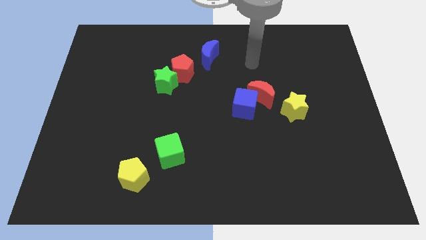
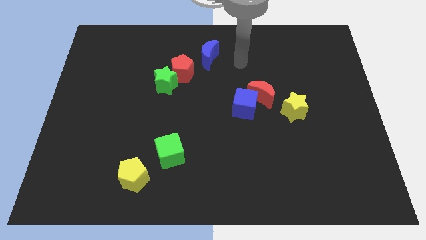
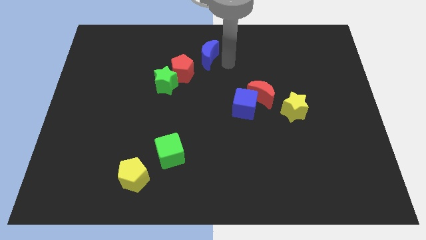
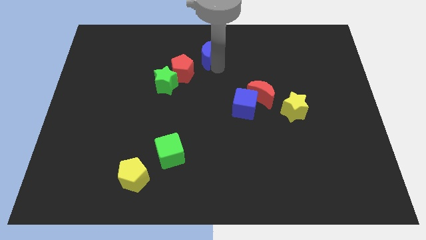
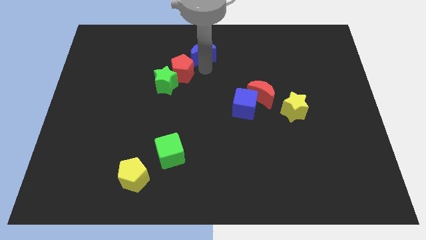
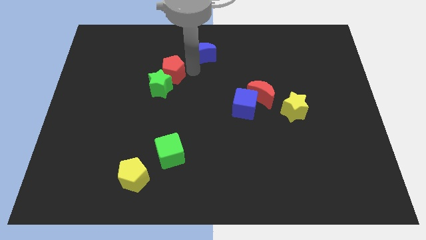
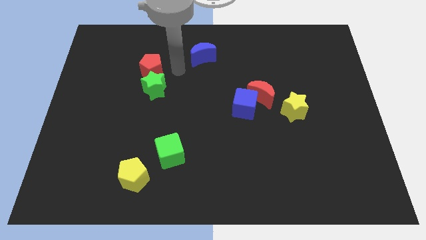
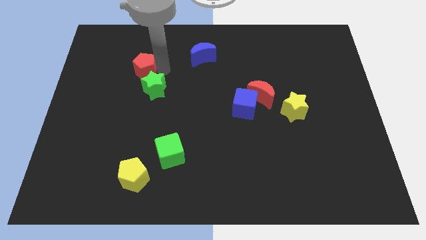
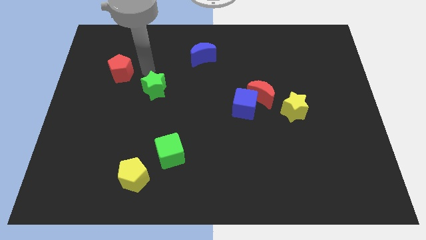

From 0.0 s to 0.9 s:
pull the green star apart from the red pentagon

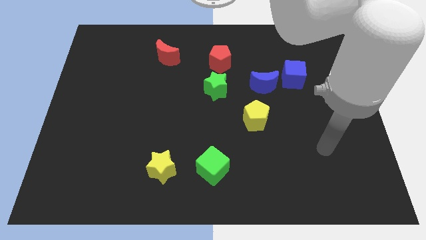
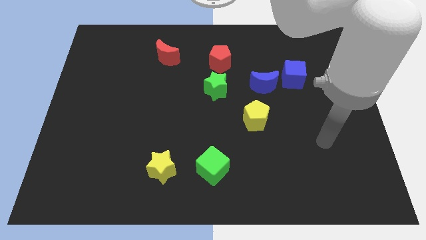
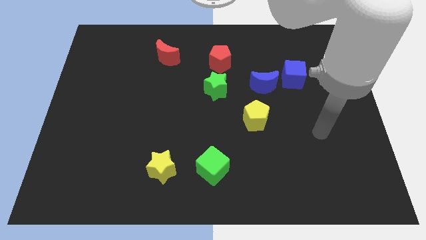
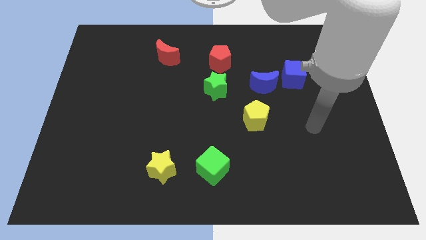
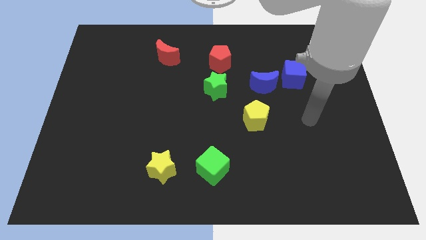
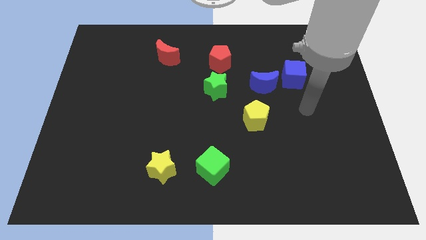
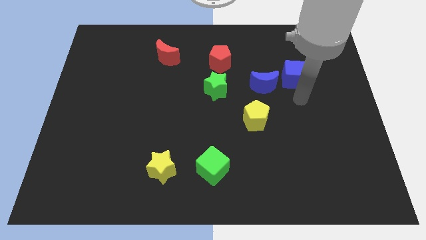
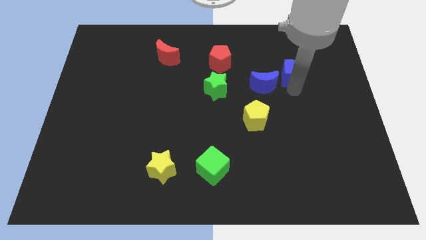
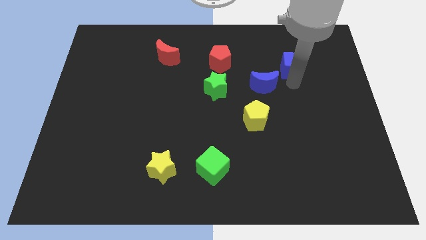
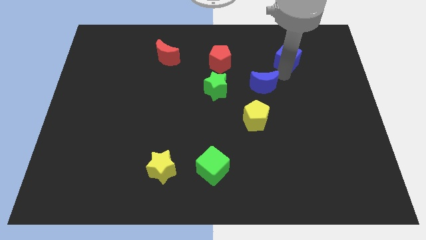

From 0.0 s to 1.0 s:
separate the blue moon from the blue cube

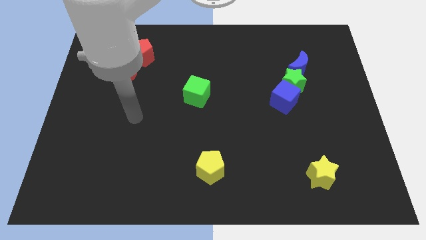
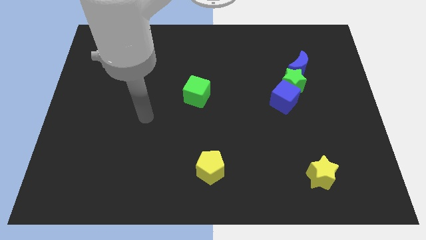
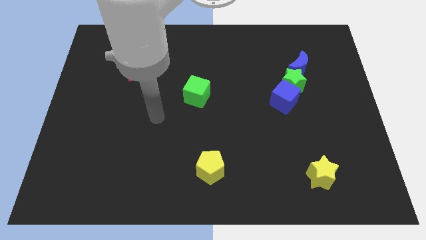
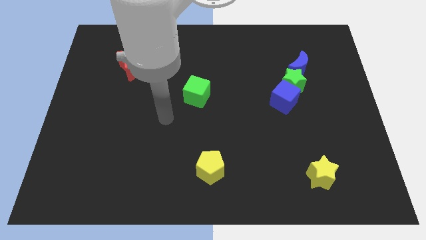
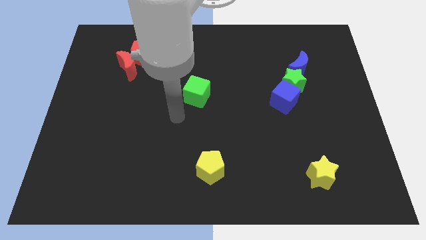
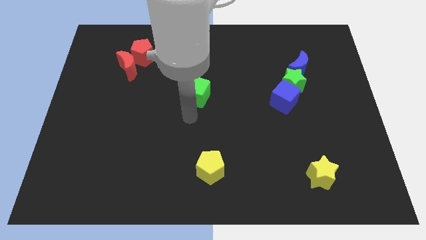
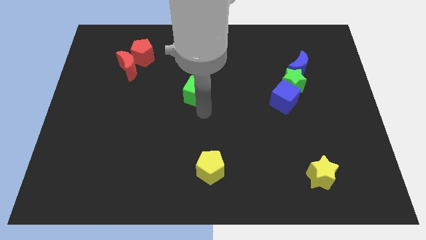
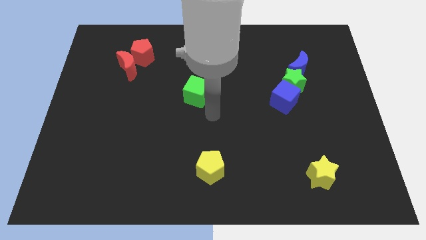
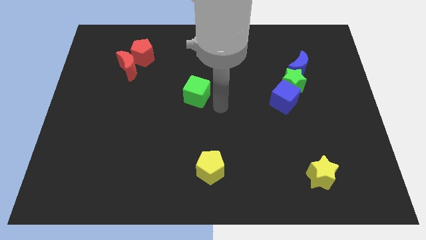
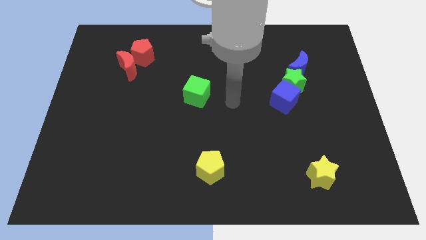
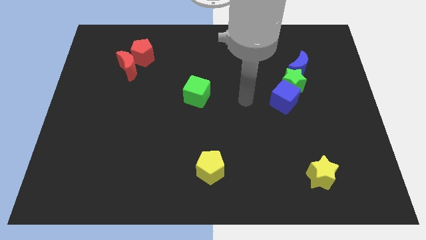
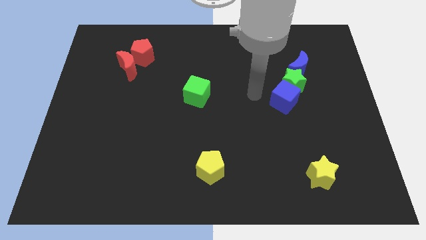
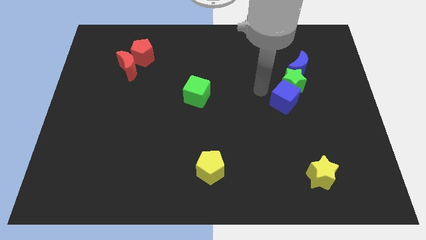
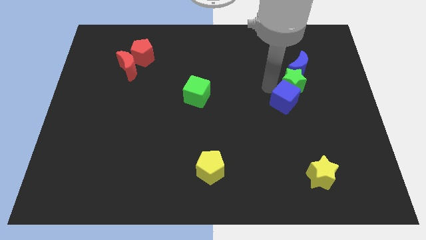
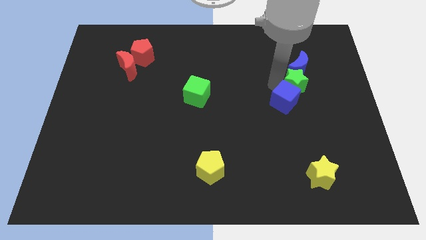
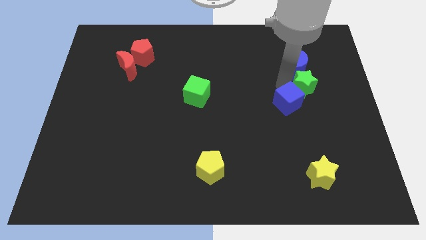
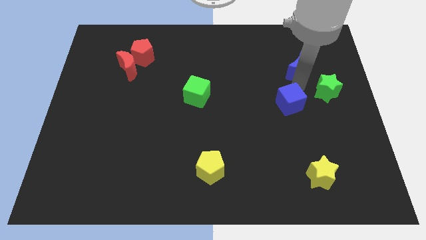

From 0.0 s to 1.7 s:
separate the blue cube from the green star

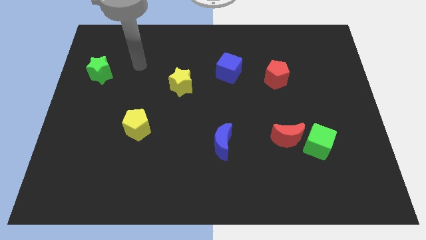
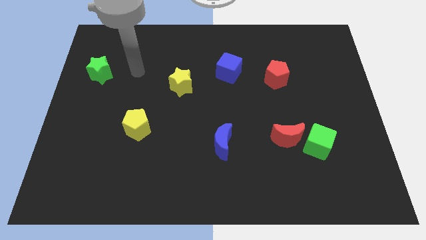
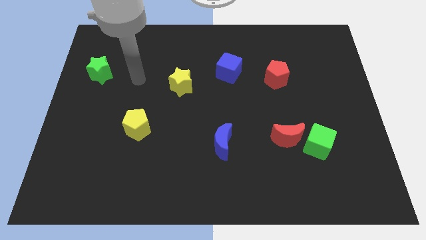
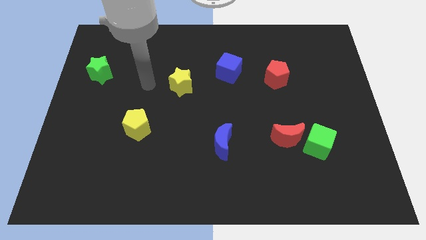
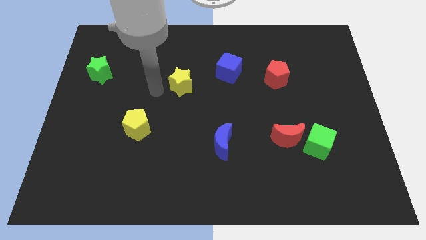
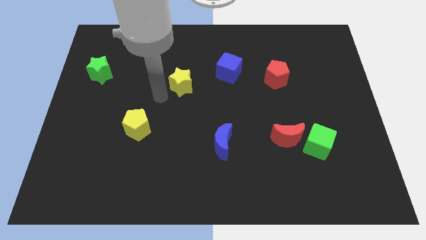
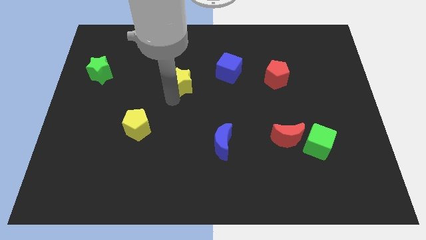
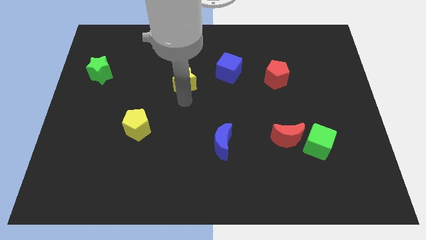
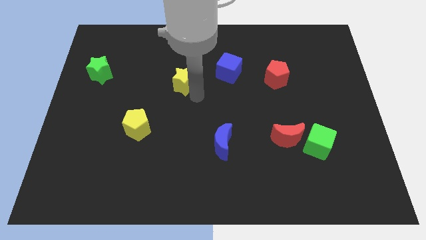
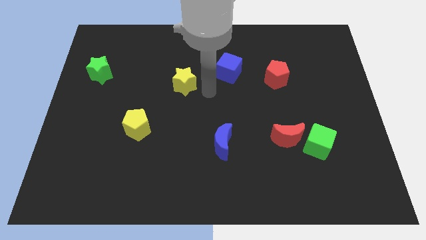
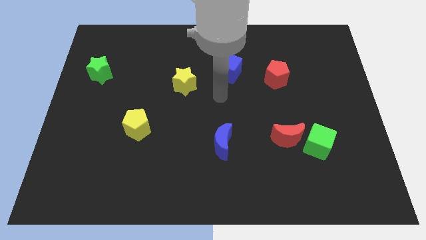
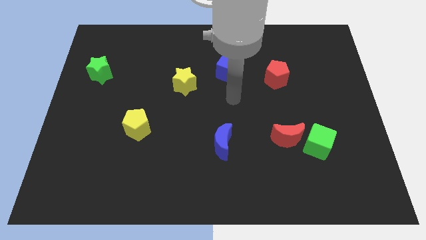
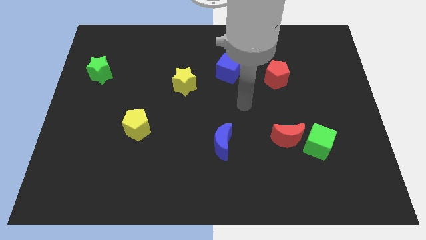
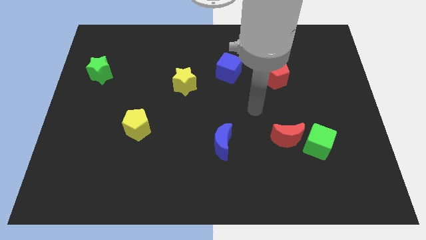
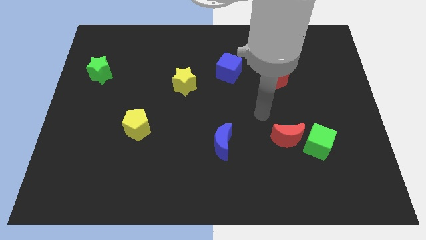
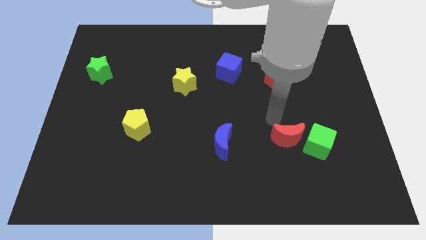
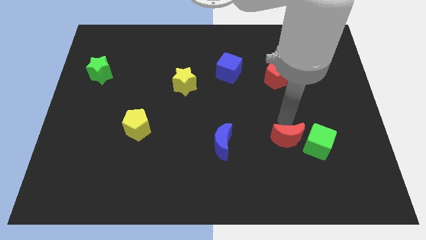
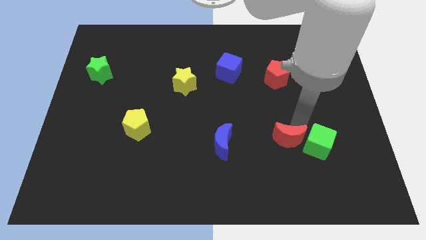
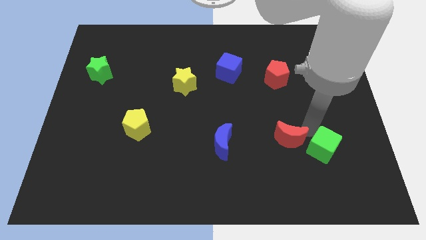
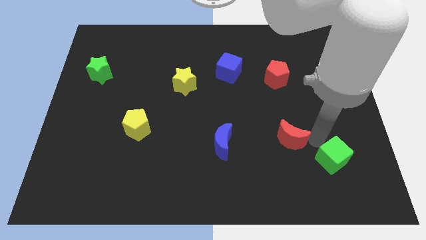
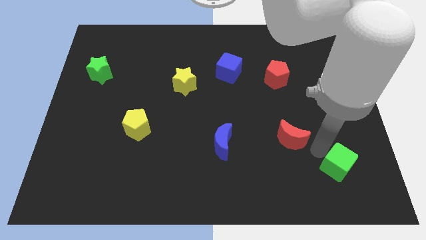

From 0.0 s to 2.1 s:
move the red moon away from the green cube

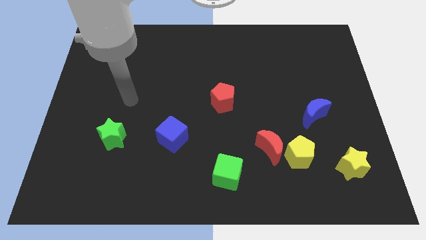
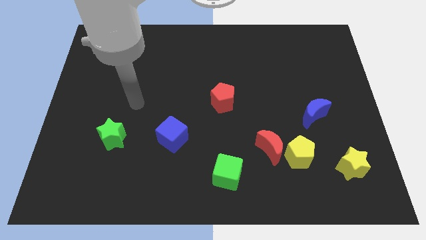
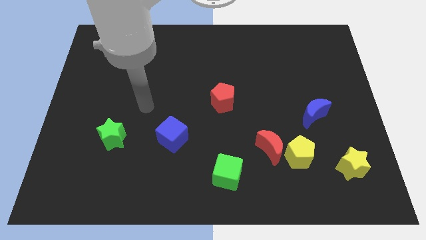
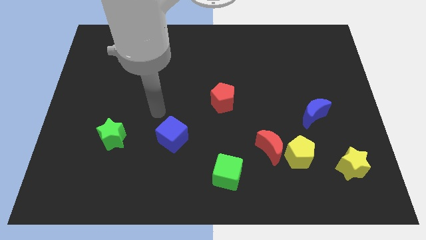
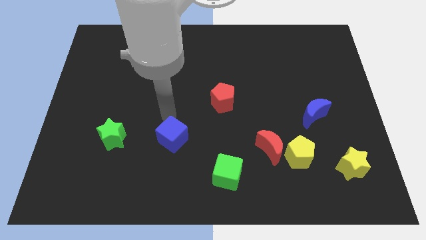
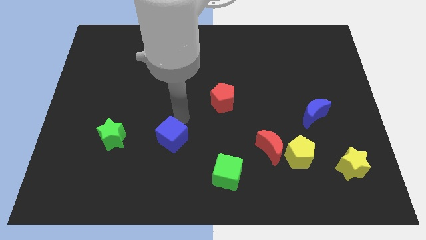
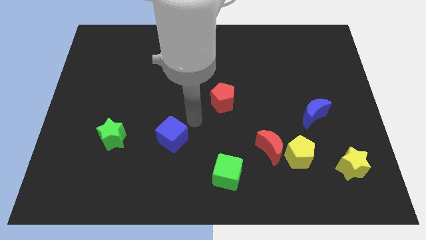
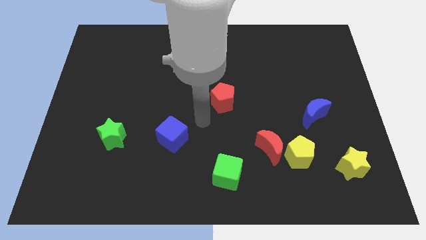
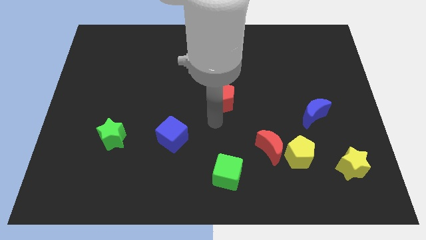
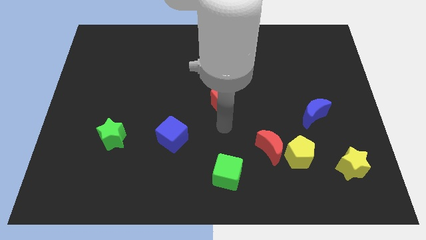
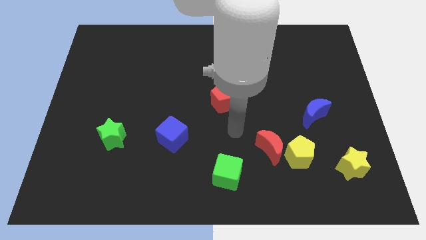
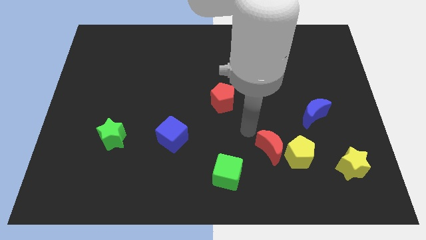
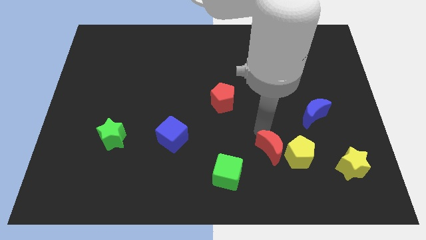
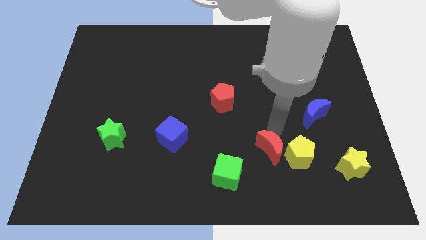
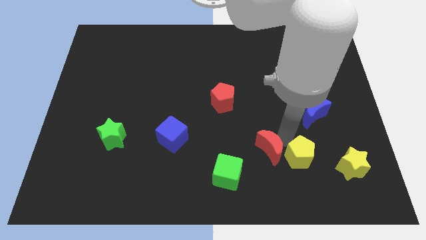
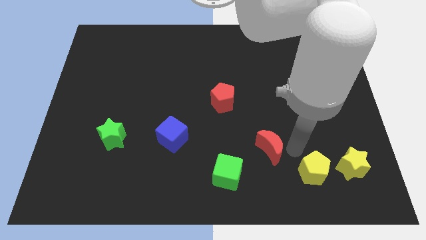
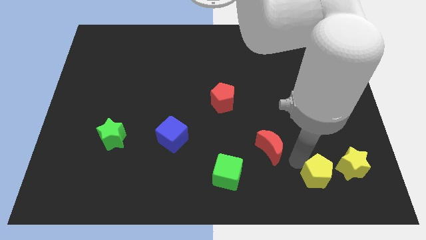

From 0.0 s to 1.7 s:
pull the red moon apart from the yellow pentagon

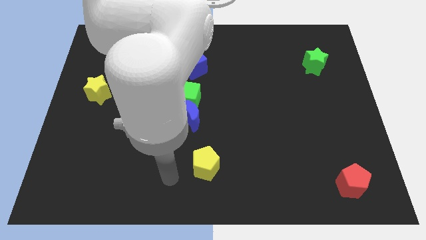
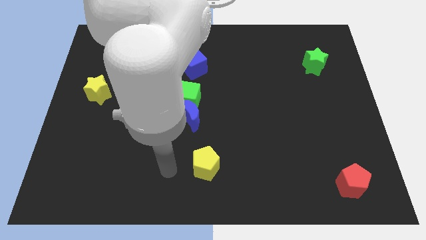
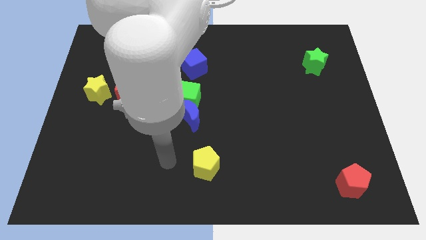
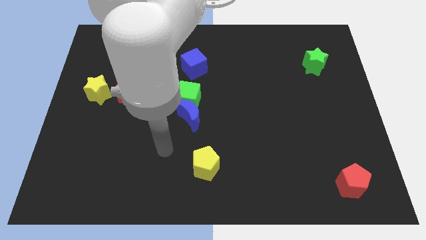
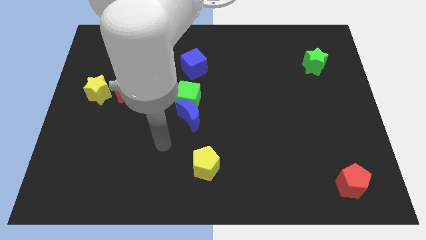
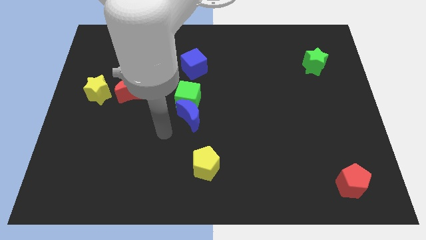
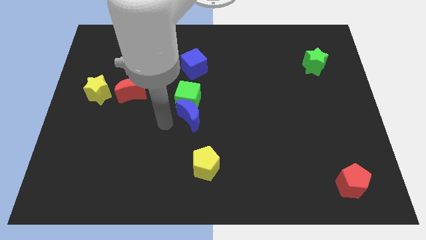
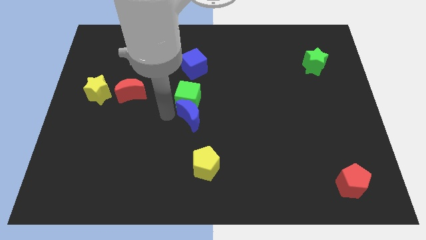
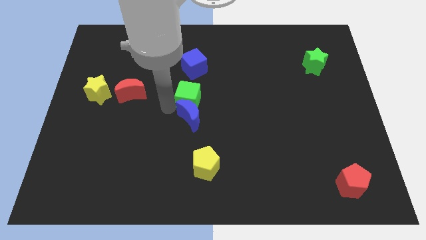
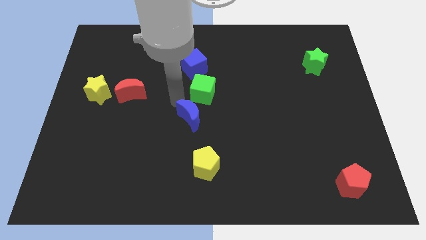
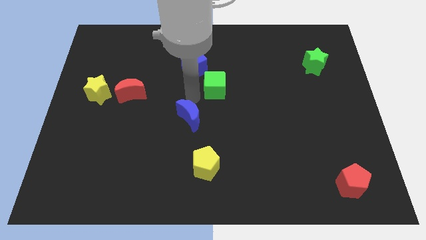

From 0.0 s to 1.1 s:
pull the blue moon apart from the green cube

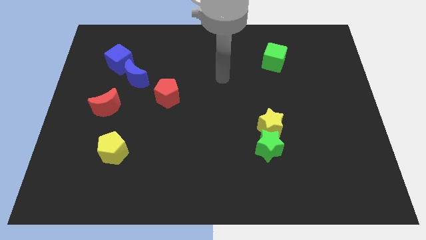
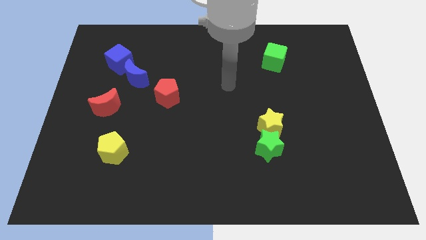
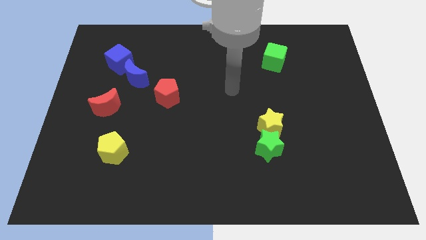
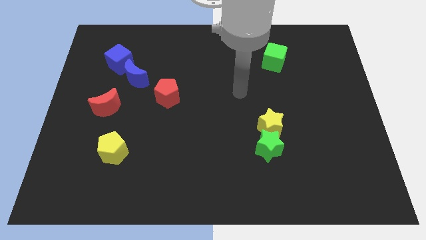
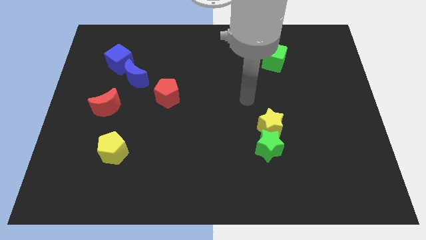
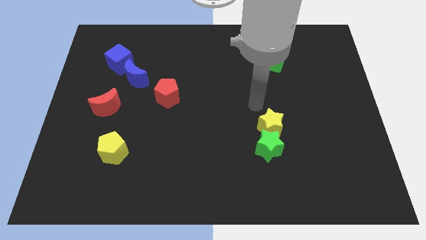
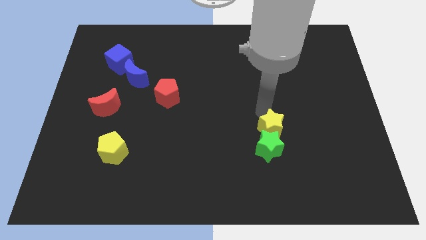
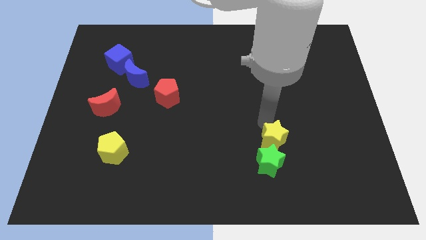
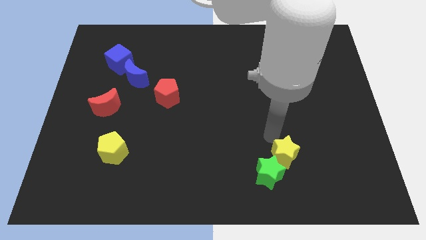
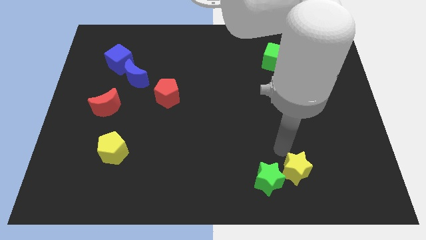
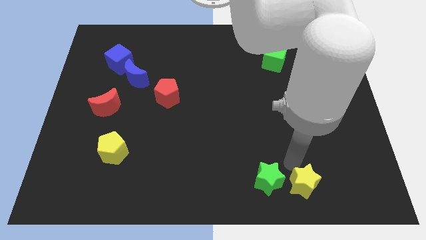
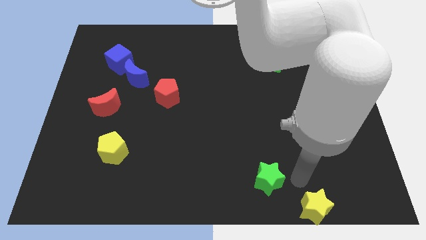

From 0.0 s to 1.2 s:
separate the green star from the yellow star
